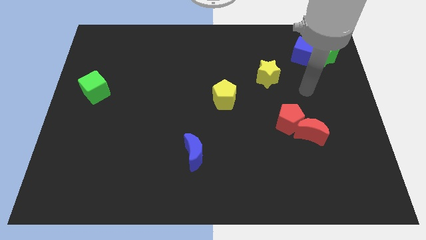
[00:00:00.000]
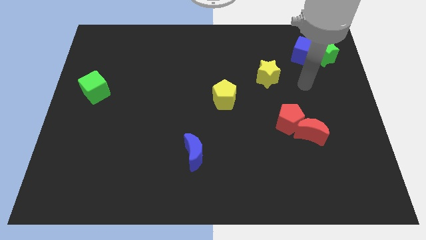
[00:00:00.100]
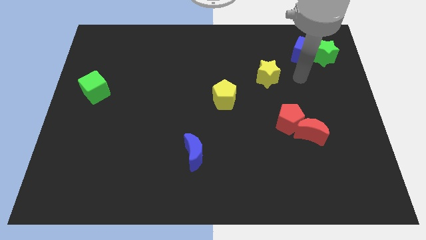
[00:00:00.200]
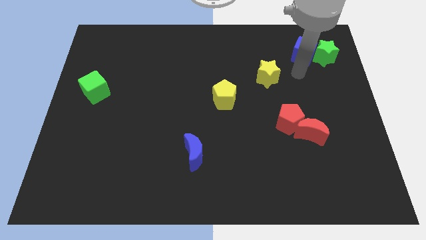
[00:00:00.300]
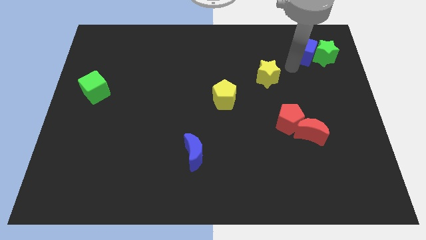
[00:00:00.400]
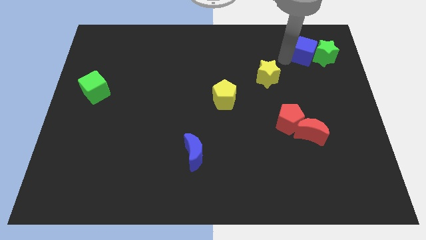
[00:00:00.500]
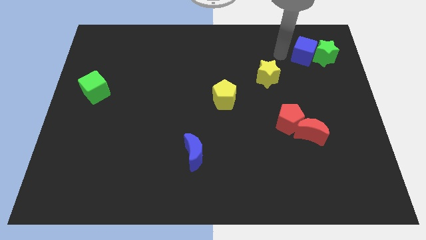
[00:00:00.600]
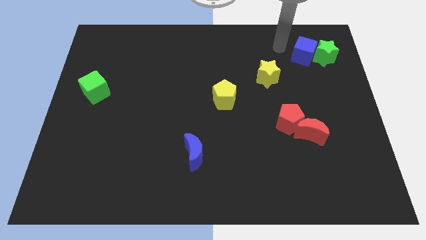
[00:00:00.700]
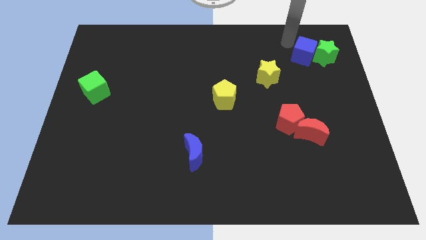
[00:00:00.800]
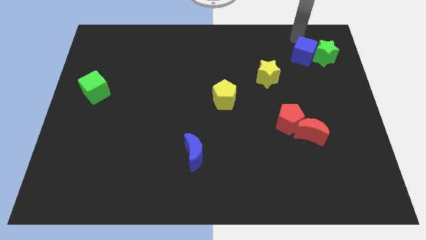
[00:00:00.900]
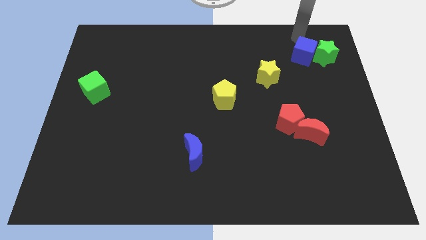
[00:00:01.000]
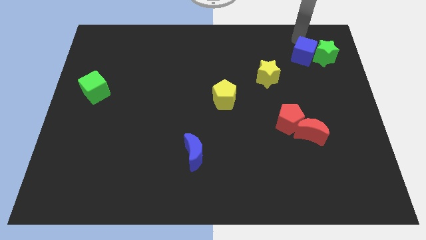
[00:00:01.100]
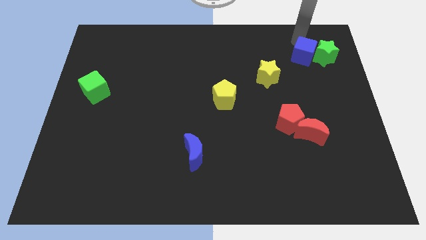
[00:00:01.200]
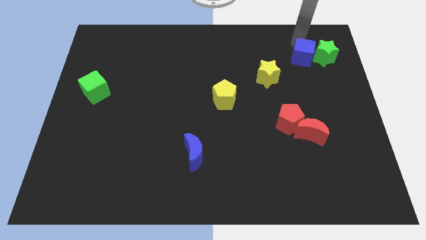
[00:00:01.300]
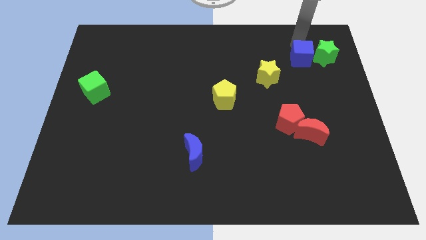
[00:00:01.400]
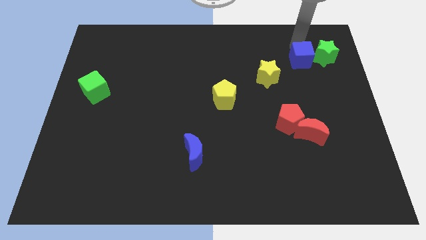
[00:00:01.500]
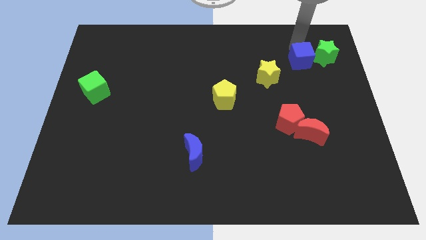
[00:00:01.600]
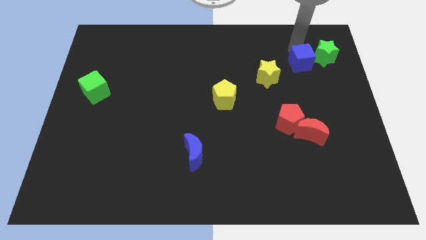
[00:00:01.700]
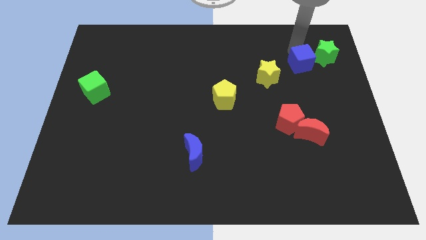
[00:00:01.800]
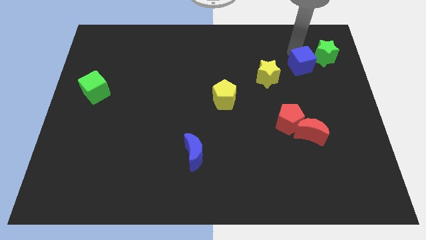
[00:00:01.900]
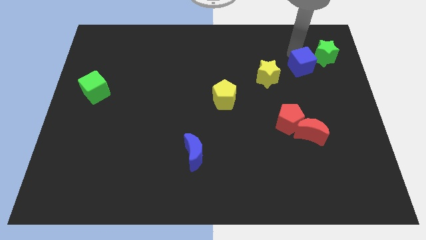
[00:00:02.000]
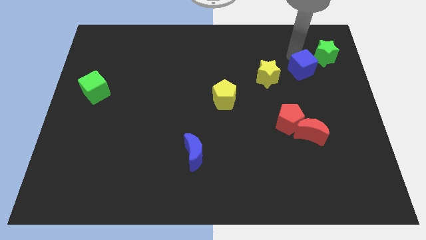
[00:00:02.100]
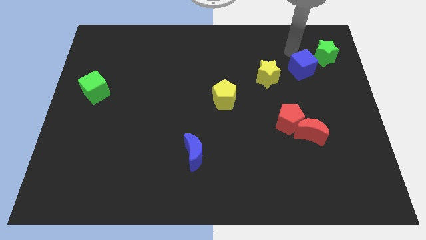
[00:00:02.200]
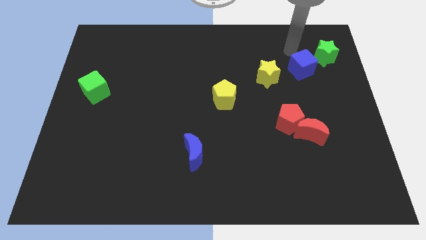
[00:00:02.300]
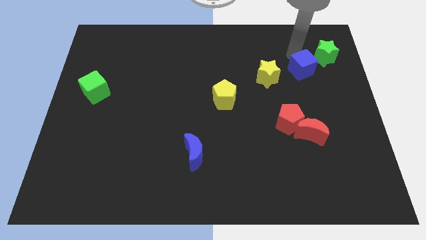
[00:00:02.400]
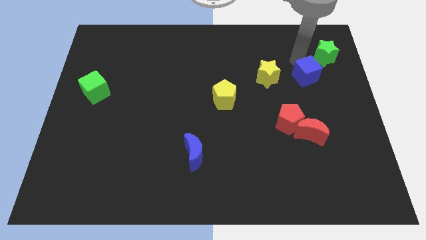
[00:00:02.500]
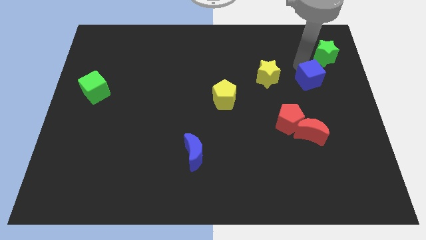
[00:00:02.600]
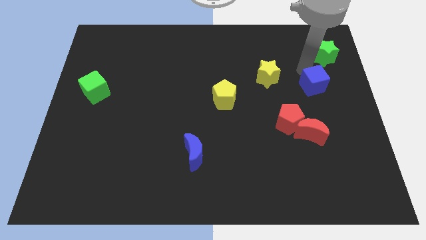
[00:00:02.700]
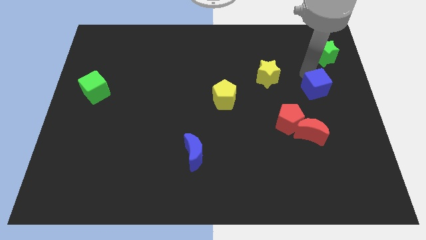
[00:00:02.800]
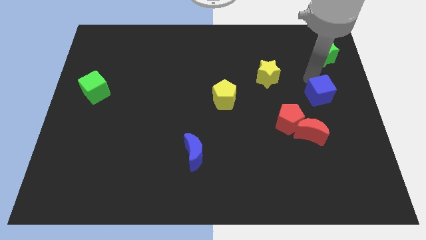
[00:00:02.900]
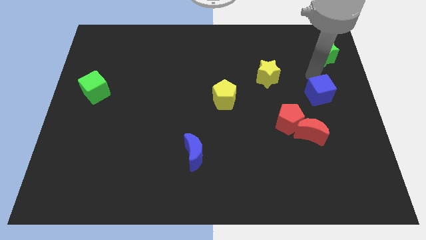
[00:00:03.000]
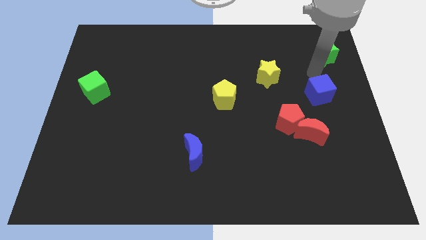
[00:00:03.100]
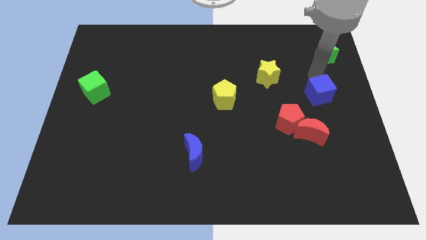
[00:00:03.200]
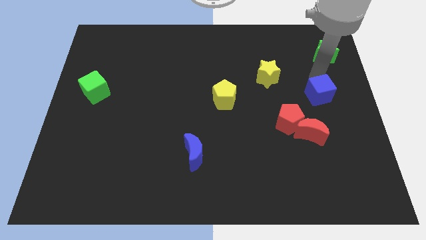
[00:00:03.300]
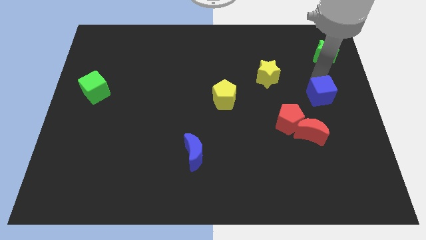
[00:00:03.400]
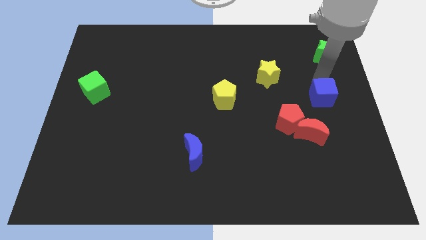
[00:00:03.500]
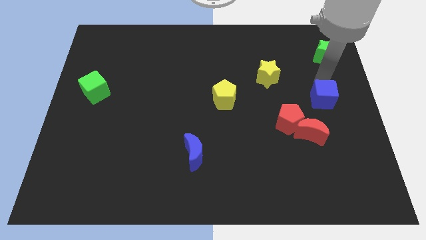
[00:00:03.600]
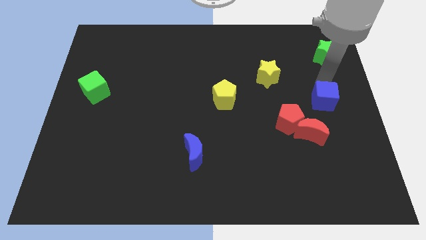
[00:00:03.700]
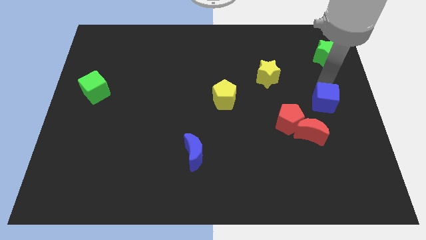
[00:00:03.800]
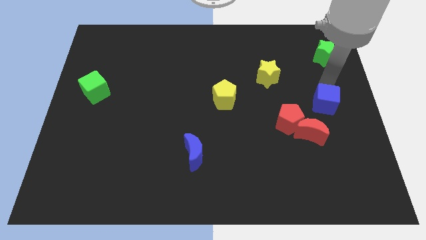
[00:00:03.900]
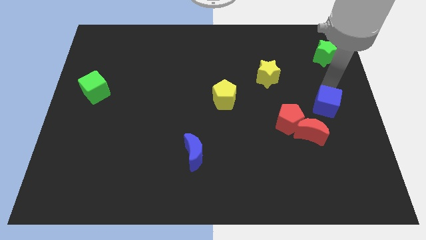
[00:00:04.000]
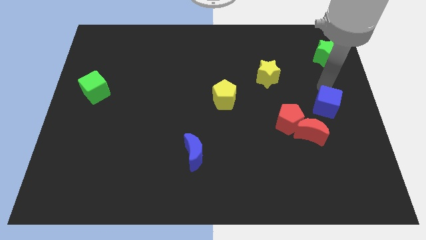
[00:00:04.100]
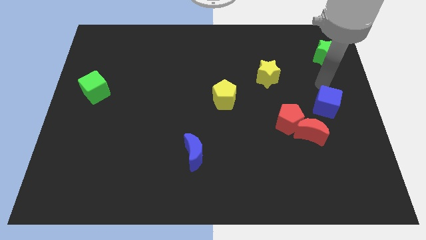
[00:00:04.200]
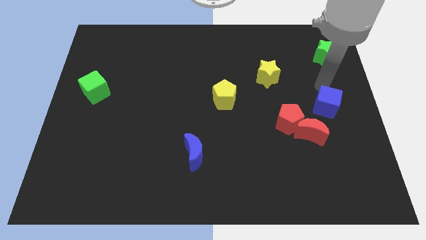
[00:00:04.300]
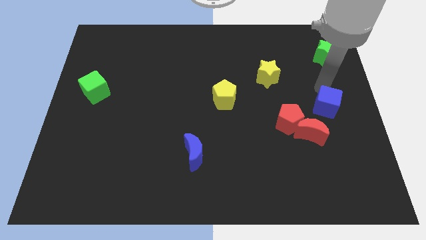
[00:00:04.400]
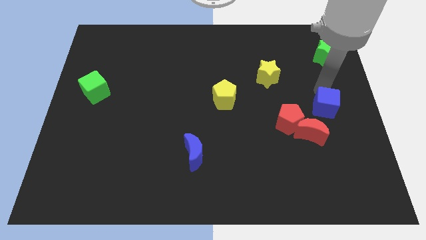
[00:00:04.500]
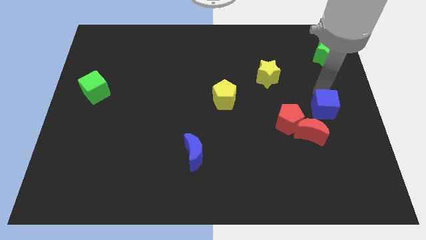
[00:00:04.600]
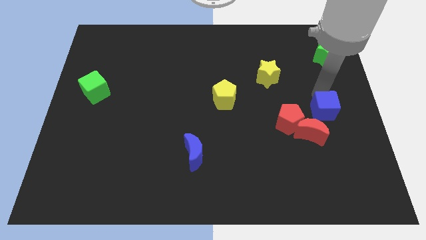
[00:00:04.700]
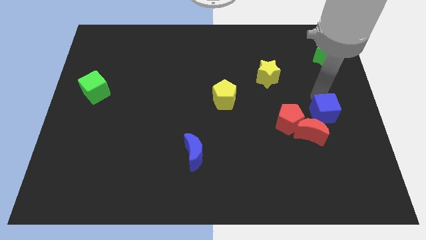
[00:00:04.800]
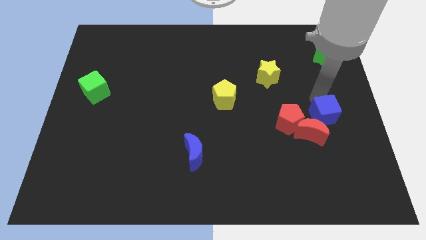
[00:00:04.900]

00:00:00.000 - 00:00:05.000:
move the blue cube downwards

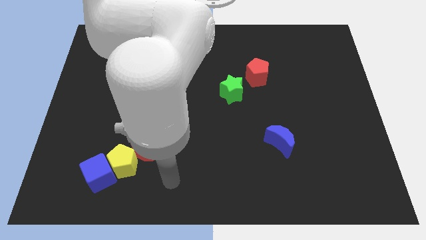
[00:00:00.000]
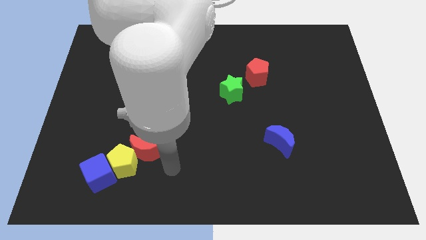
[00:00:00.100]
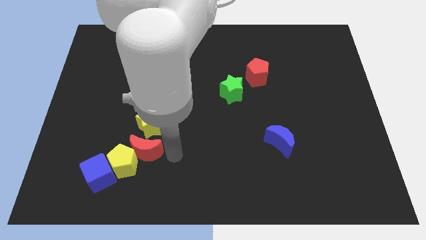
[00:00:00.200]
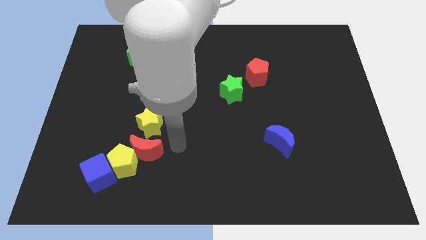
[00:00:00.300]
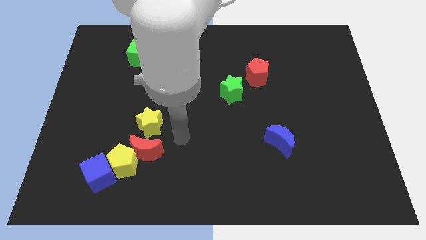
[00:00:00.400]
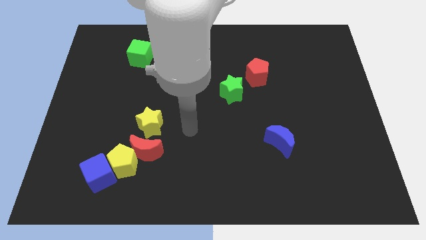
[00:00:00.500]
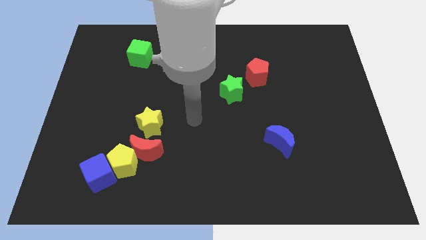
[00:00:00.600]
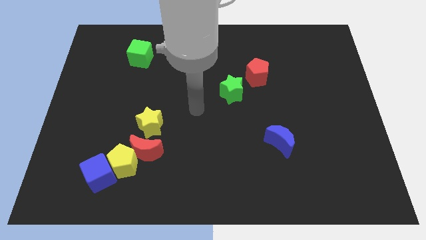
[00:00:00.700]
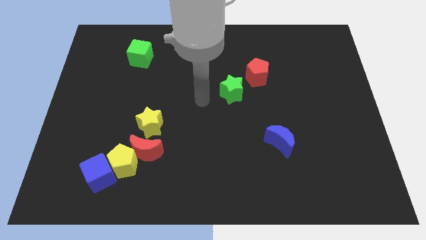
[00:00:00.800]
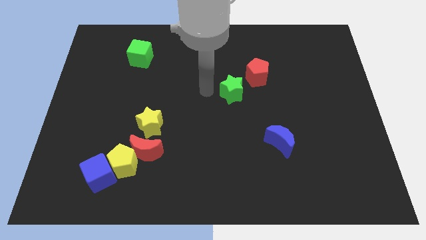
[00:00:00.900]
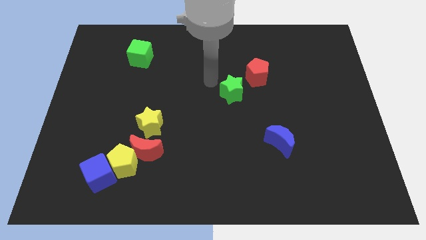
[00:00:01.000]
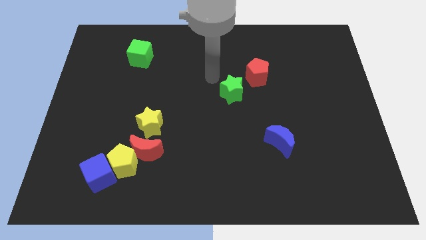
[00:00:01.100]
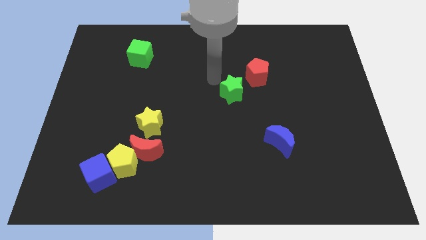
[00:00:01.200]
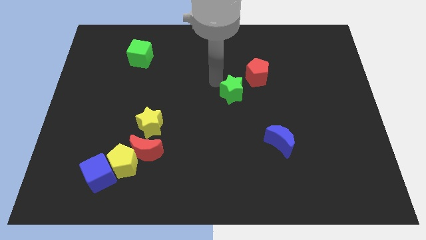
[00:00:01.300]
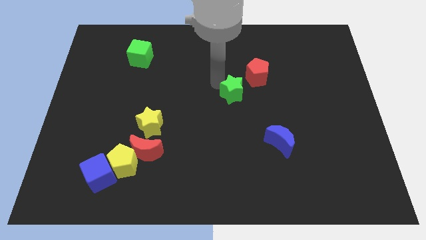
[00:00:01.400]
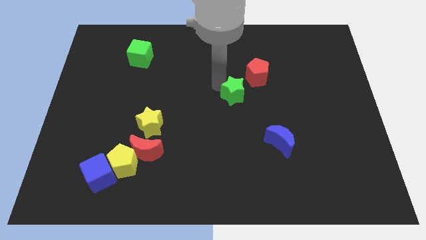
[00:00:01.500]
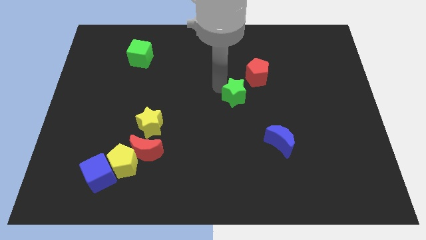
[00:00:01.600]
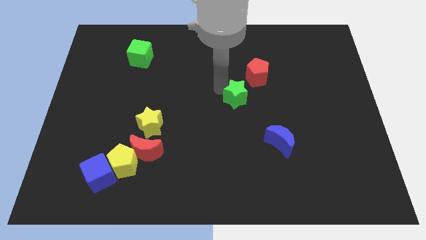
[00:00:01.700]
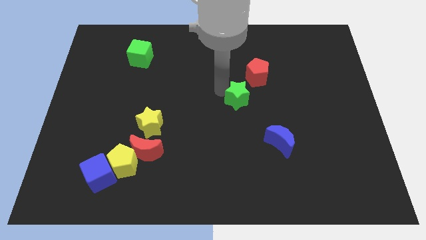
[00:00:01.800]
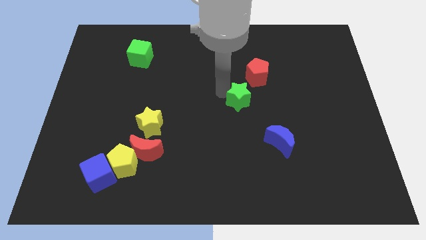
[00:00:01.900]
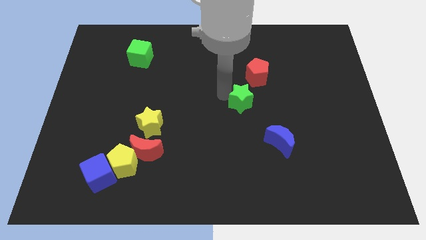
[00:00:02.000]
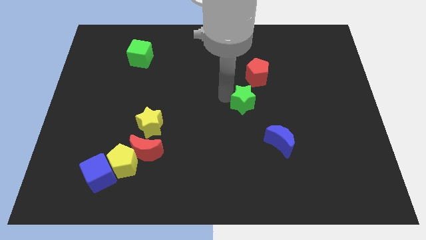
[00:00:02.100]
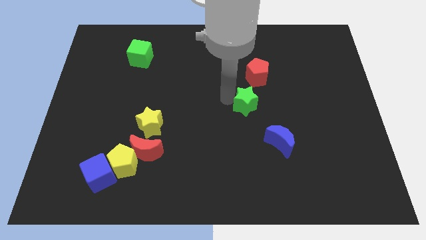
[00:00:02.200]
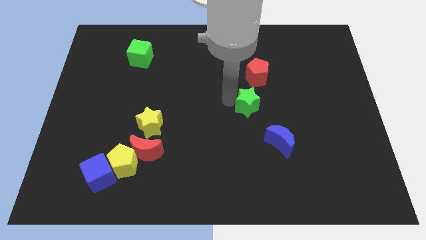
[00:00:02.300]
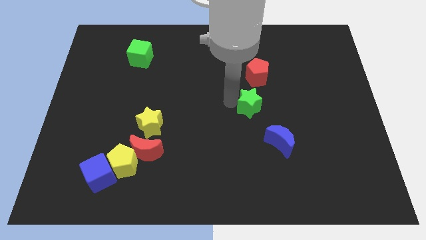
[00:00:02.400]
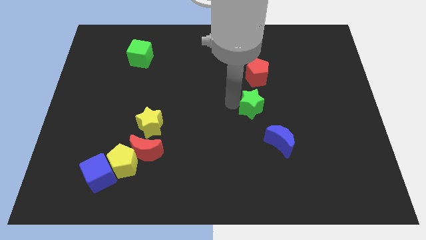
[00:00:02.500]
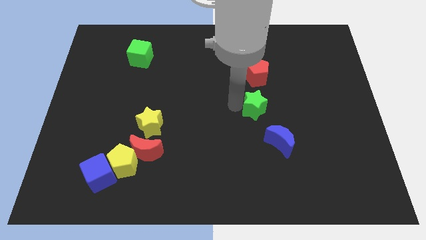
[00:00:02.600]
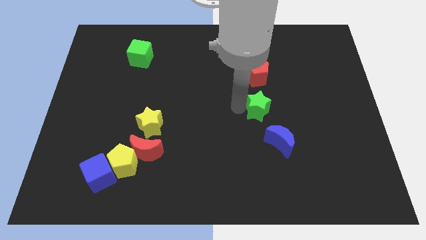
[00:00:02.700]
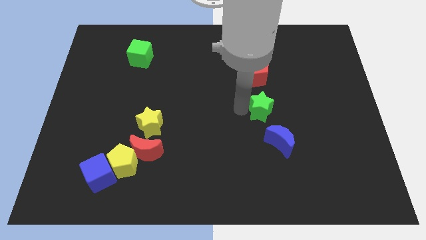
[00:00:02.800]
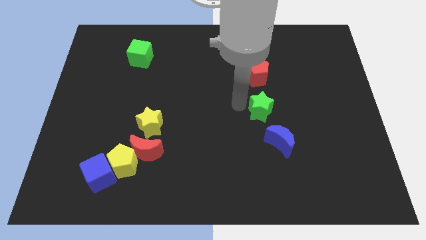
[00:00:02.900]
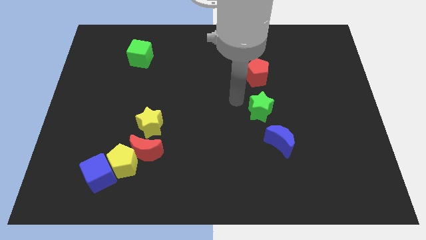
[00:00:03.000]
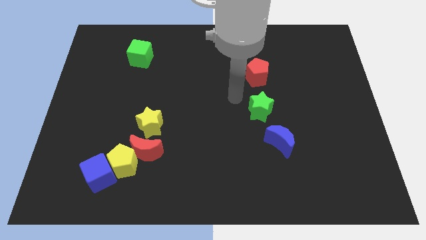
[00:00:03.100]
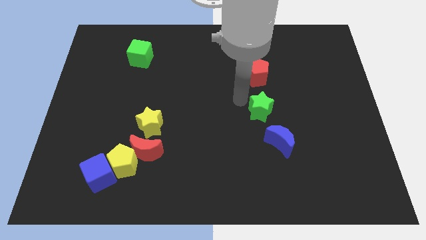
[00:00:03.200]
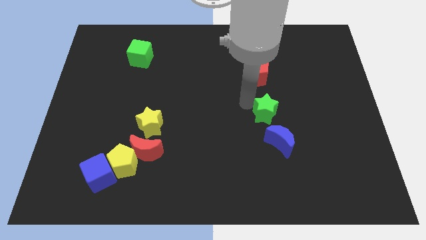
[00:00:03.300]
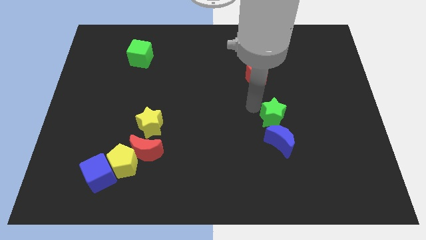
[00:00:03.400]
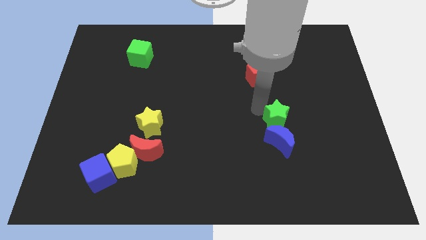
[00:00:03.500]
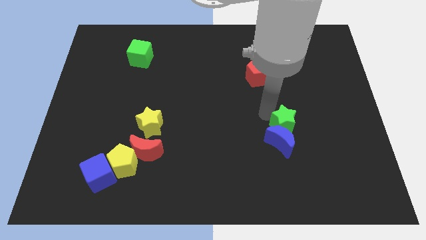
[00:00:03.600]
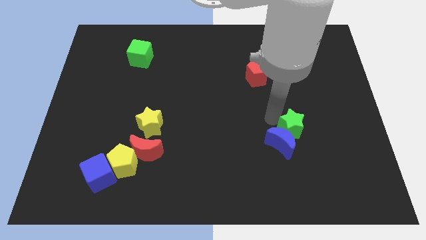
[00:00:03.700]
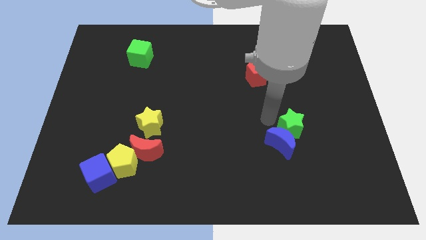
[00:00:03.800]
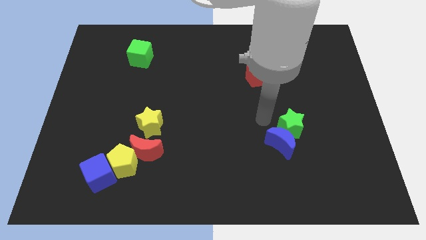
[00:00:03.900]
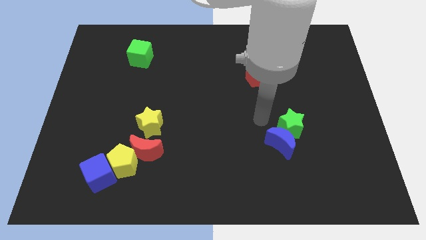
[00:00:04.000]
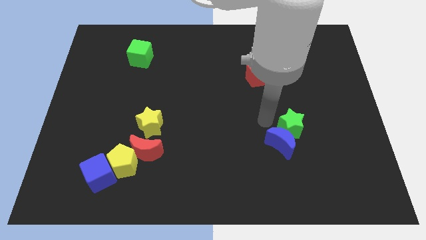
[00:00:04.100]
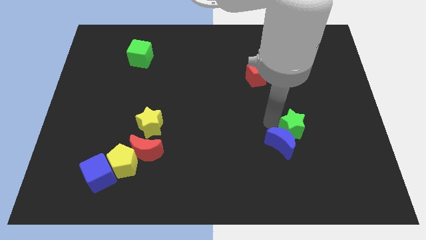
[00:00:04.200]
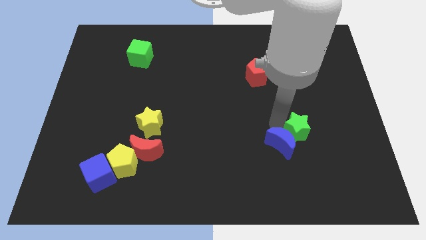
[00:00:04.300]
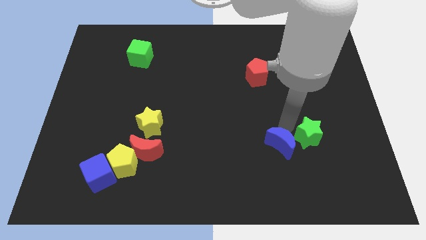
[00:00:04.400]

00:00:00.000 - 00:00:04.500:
move the green star downwards and right diagonally
